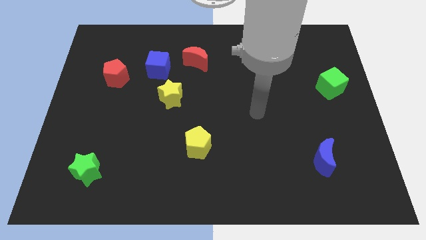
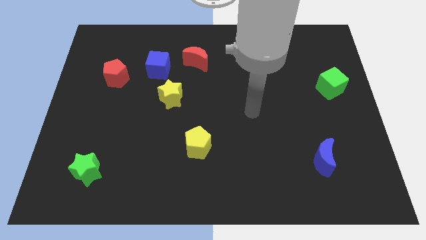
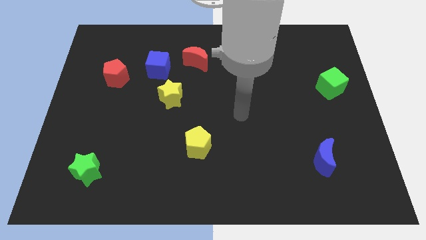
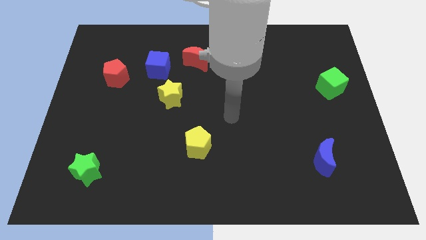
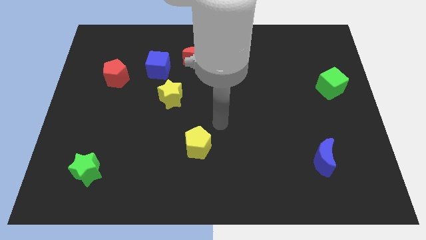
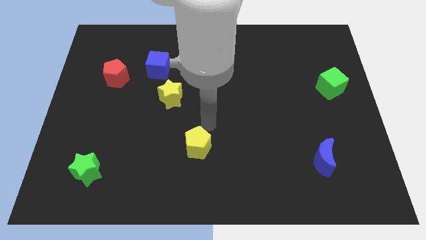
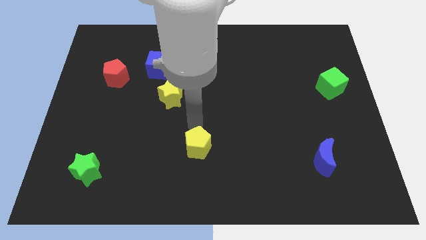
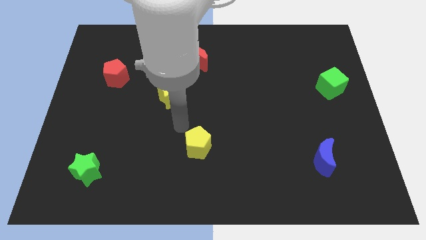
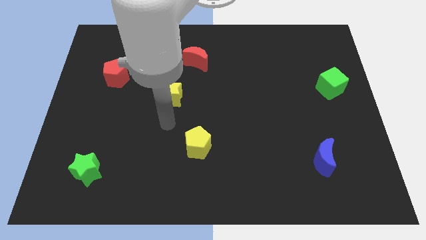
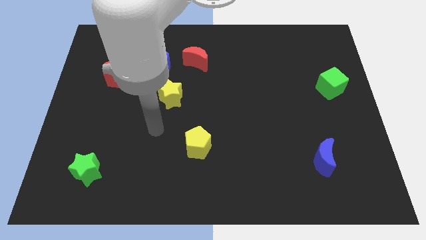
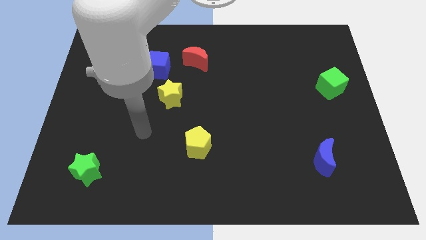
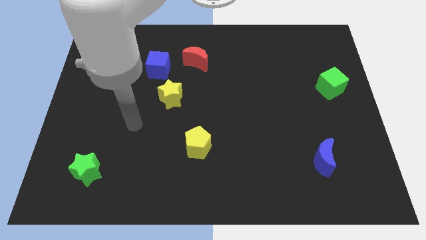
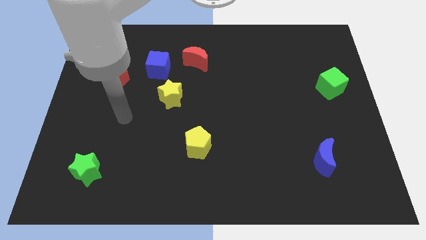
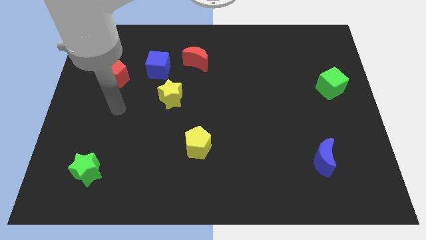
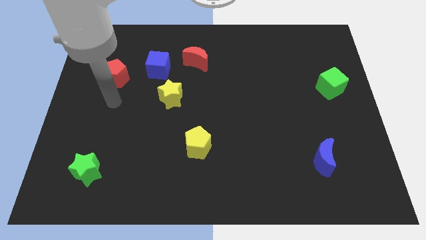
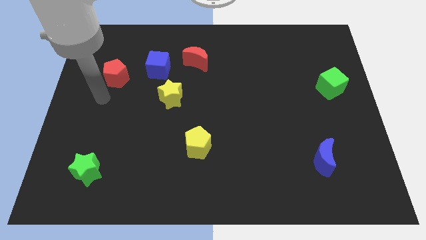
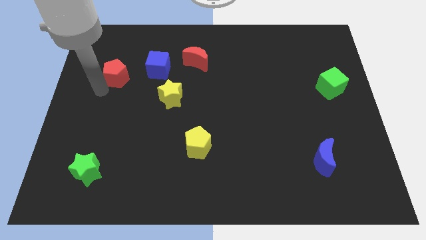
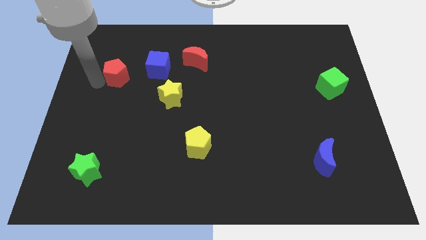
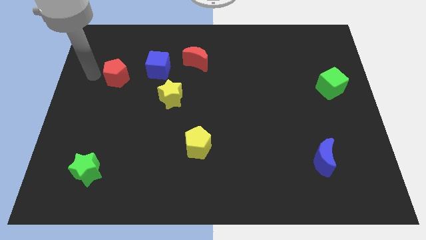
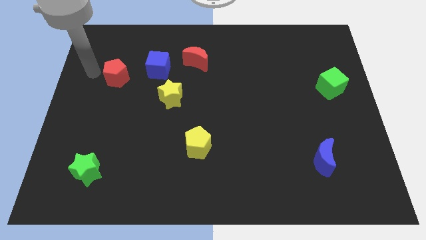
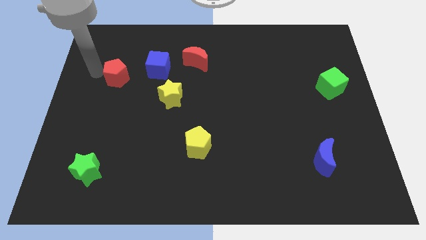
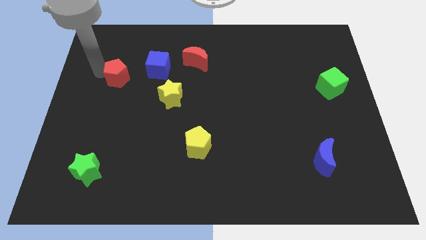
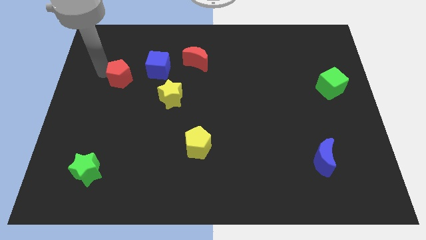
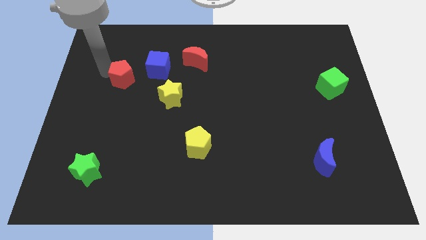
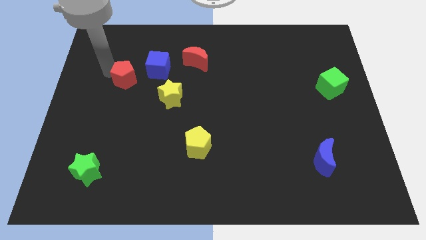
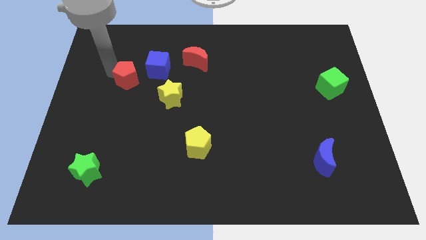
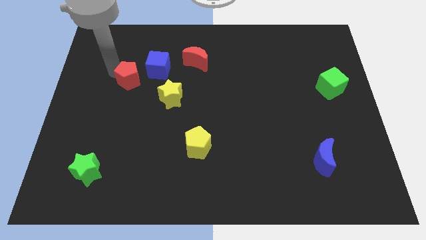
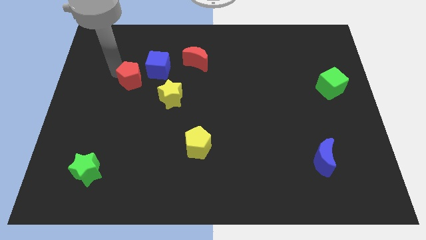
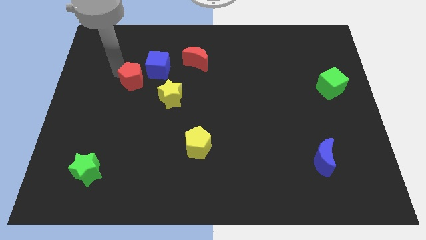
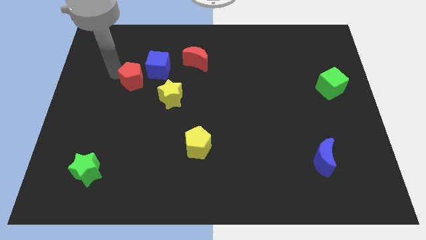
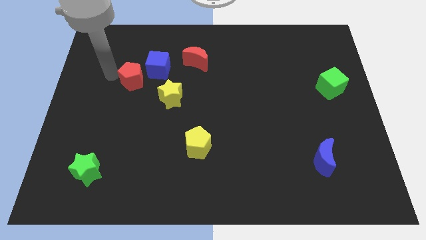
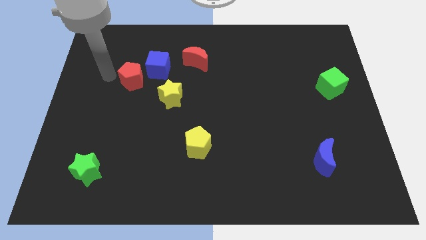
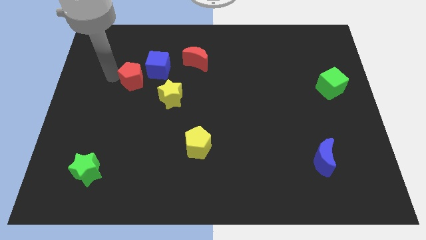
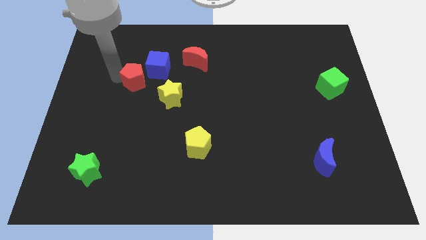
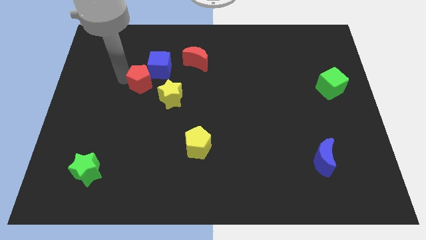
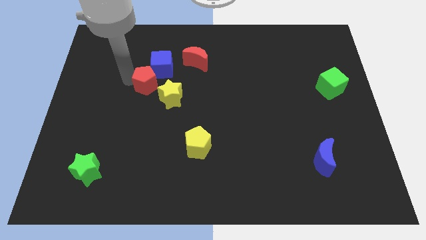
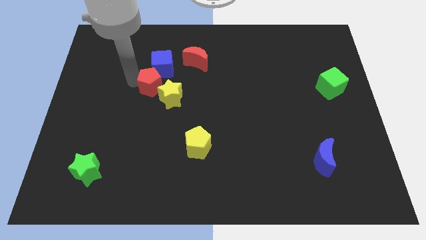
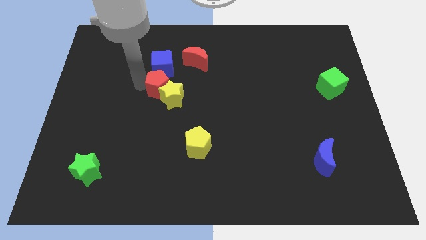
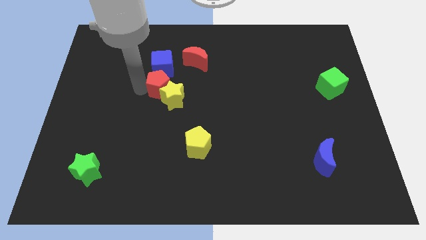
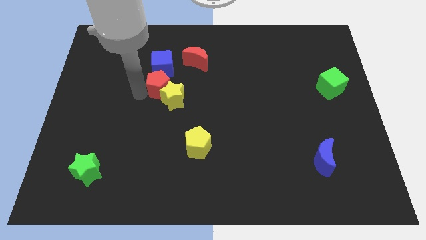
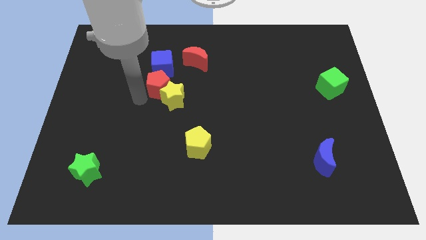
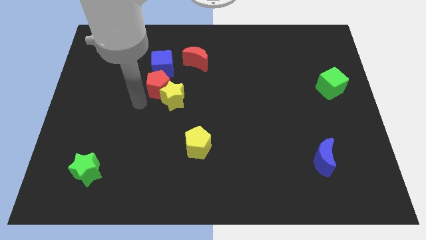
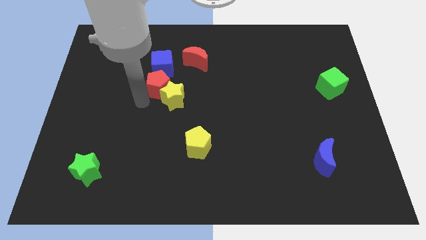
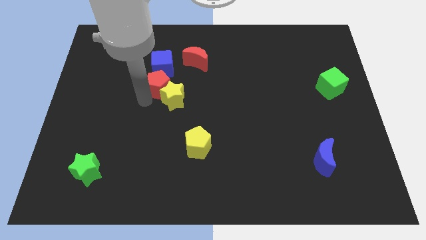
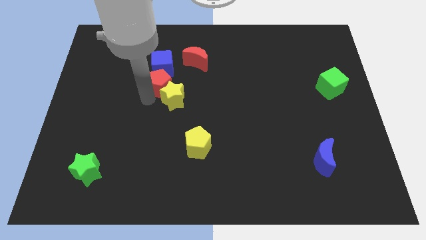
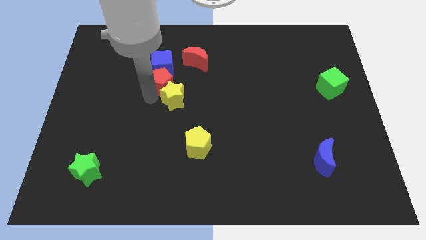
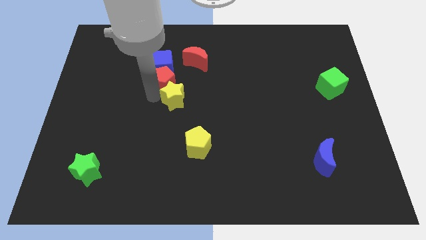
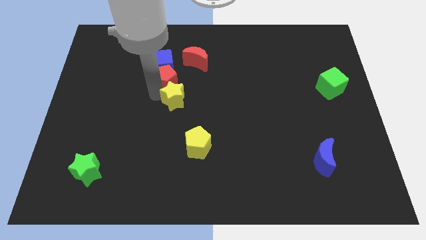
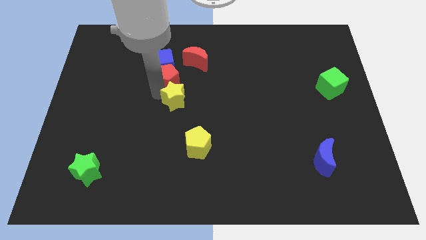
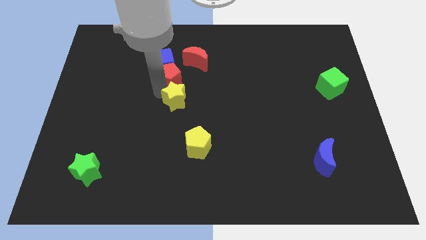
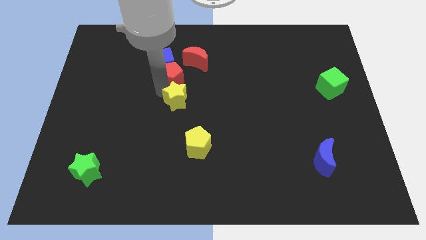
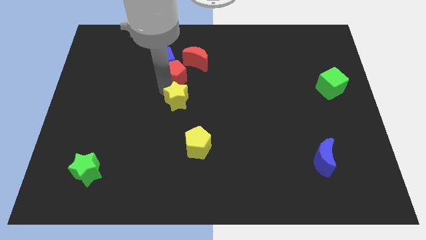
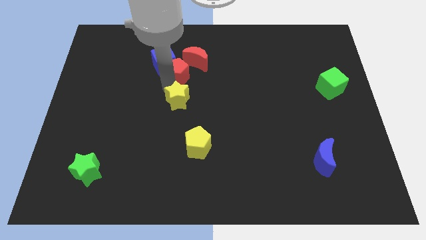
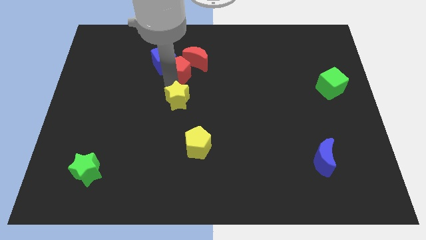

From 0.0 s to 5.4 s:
slide the red pentagon next to the red moon

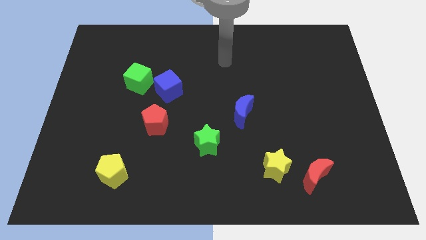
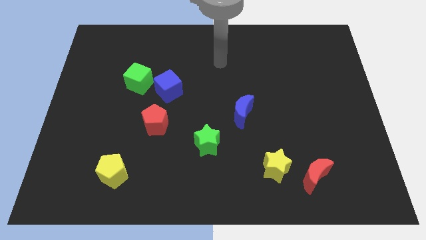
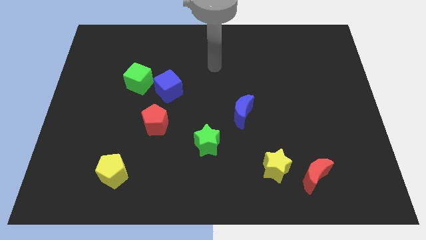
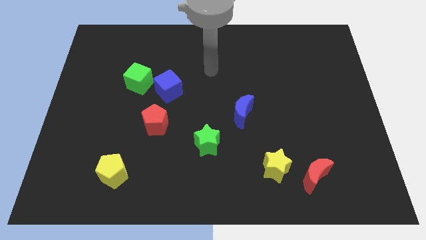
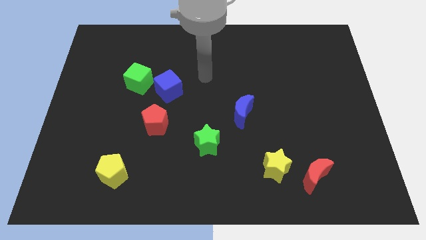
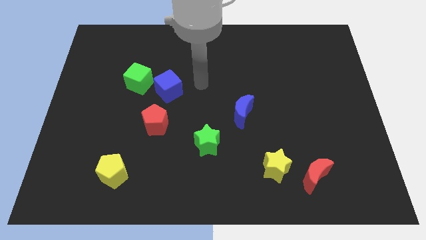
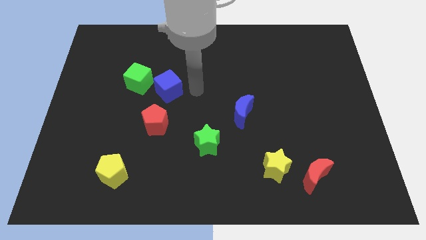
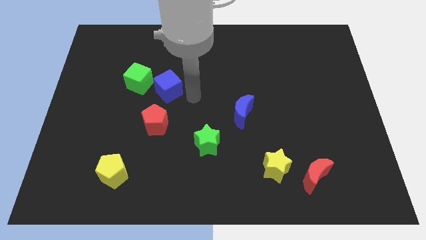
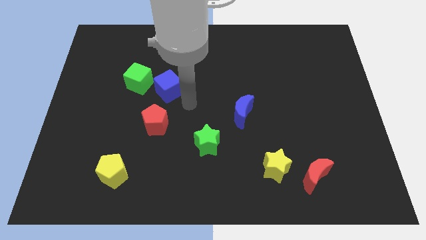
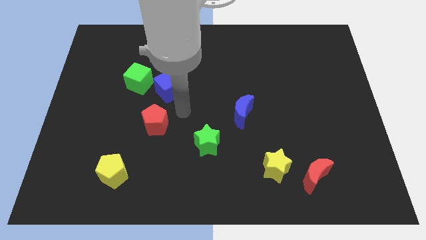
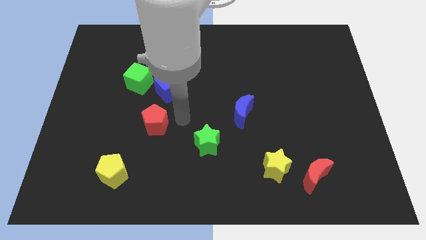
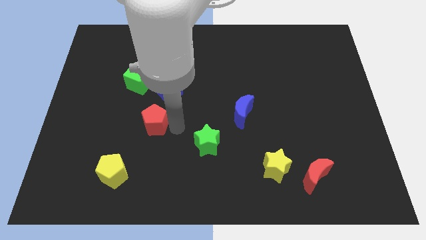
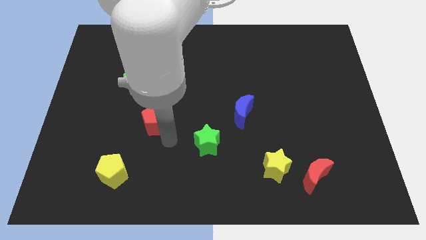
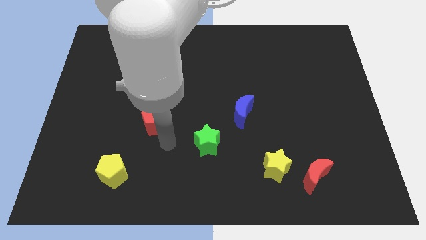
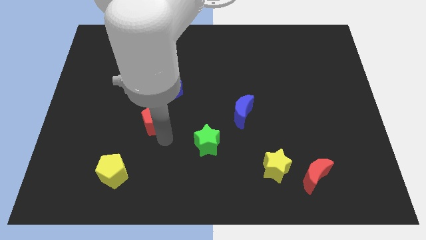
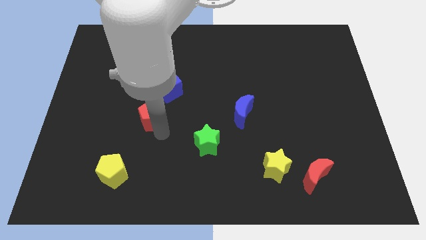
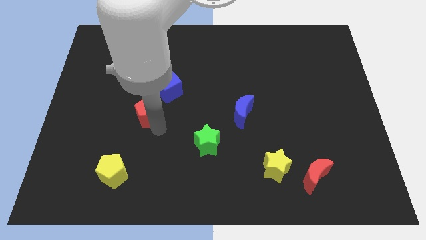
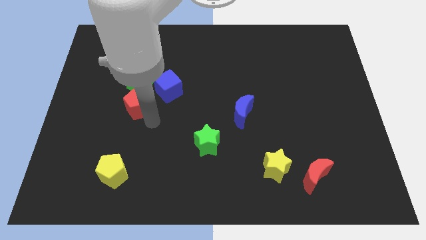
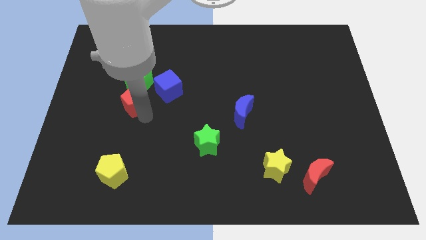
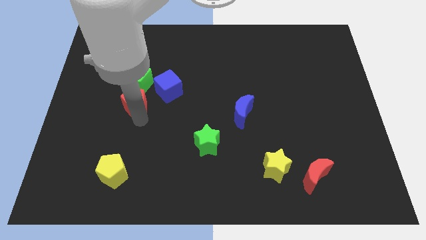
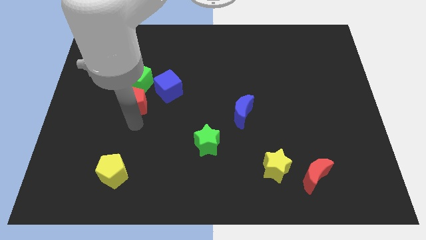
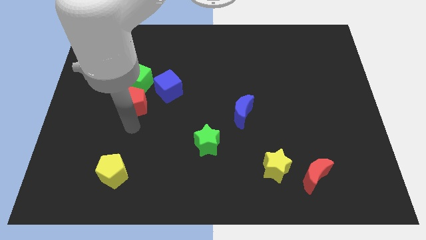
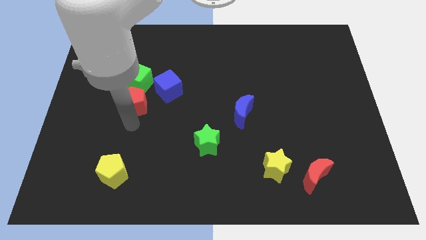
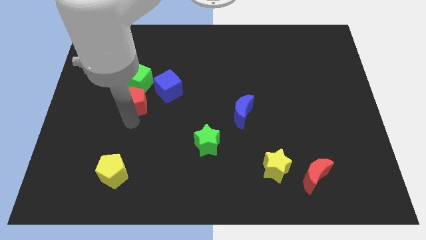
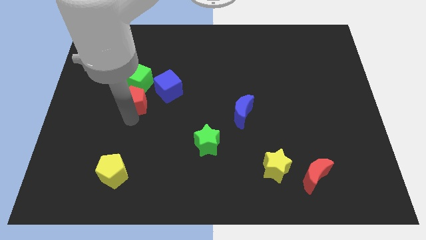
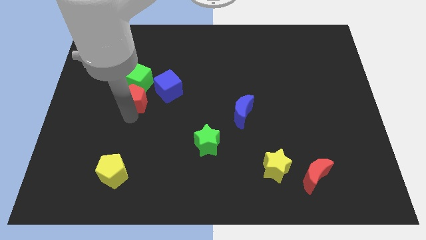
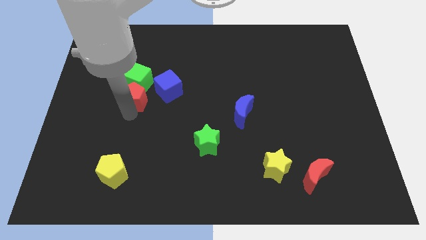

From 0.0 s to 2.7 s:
slide the red pentagon to the green cube
